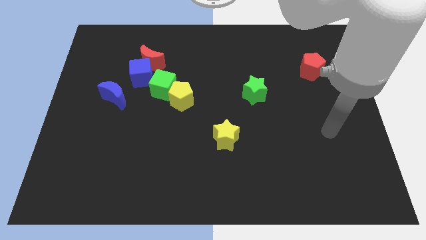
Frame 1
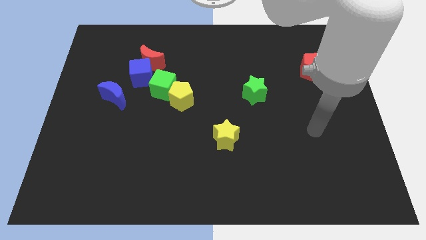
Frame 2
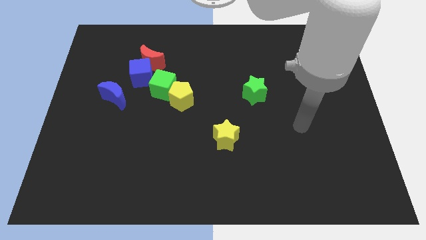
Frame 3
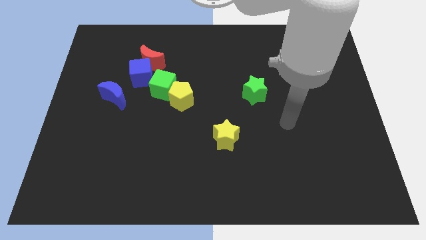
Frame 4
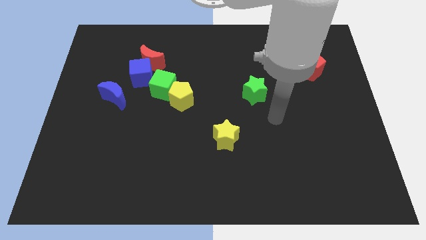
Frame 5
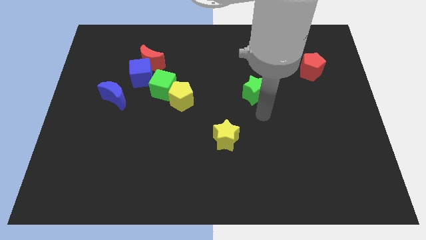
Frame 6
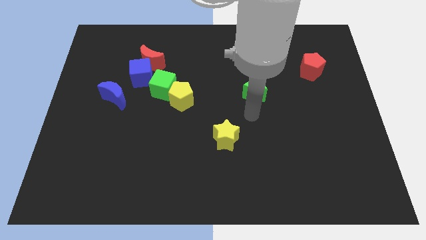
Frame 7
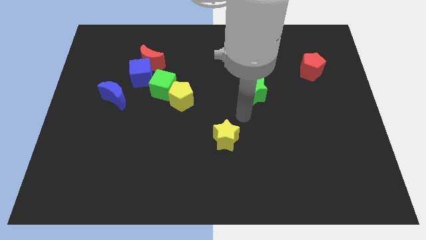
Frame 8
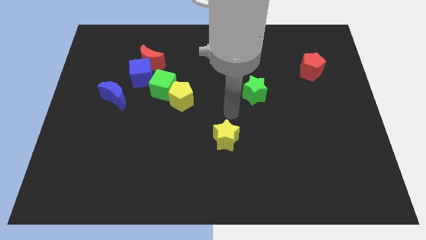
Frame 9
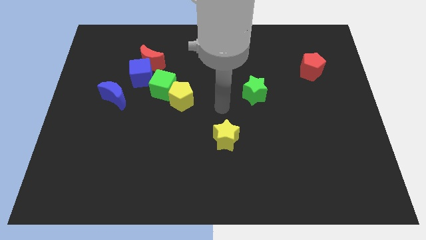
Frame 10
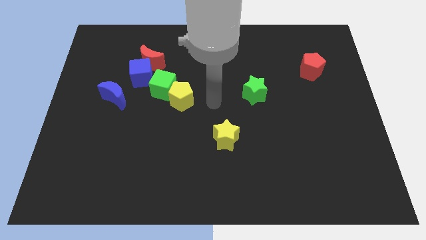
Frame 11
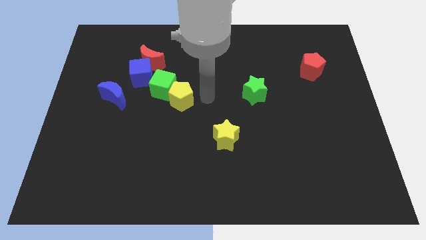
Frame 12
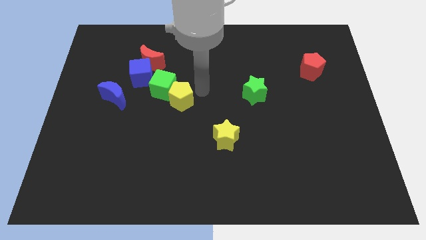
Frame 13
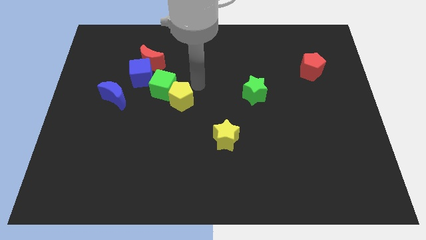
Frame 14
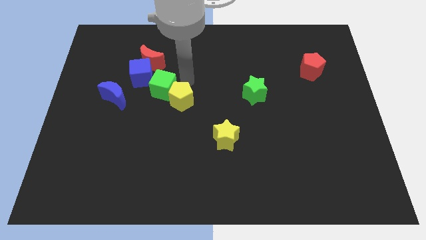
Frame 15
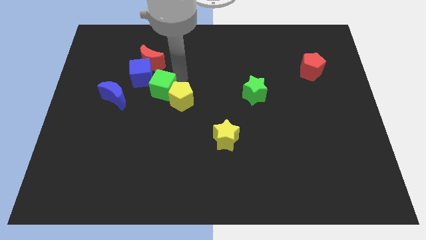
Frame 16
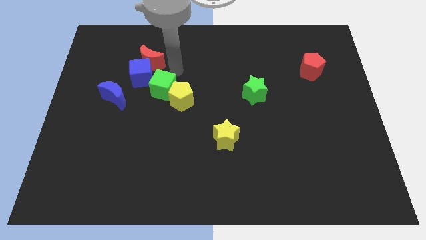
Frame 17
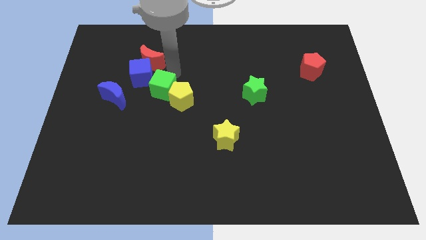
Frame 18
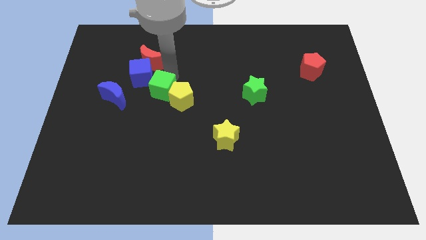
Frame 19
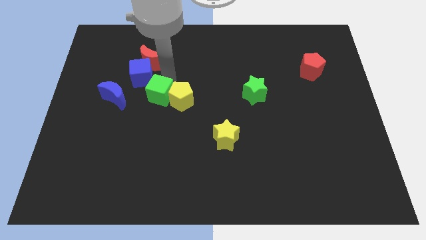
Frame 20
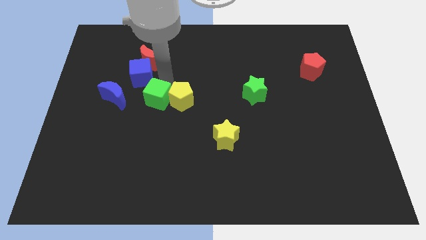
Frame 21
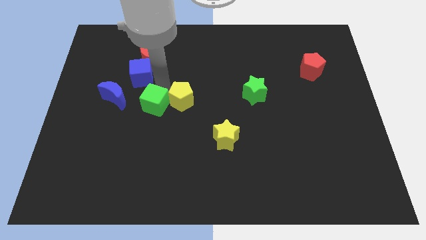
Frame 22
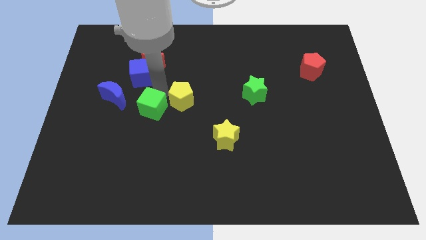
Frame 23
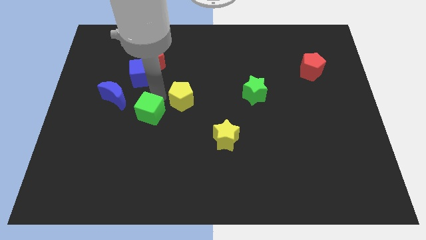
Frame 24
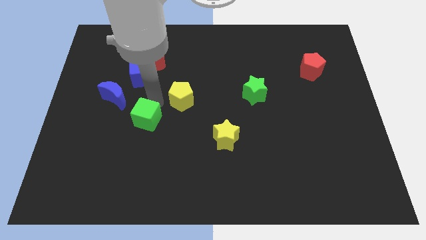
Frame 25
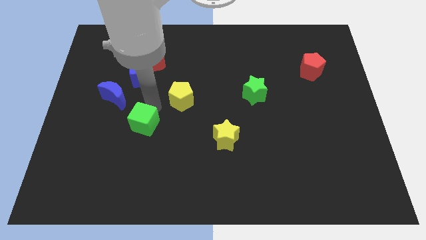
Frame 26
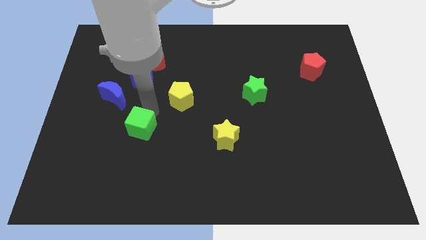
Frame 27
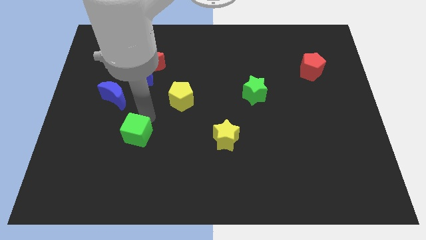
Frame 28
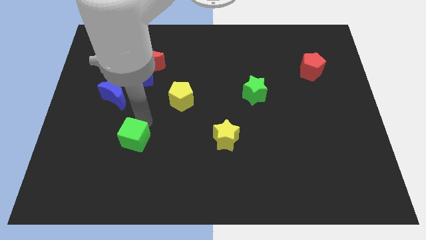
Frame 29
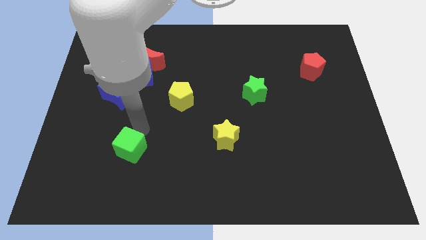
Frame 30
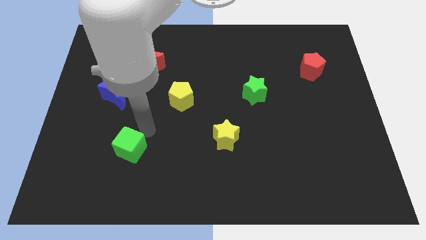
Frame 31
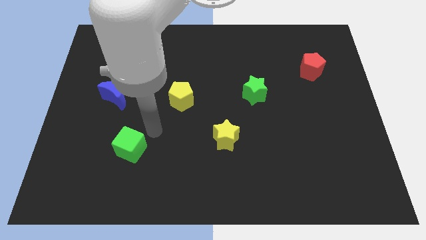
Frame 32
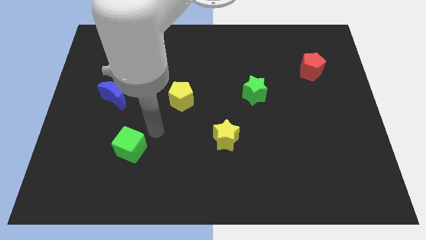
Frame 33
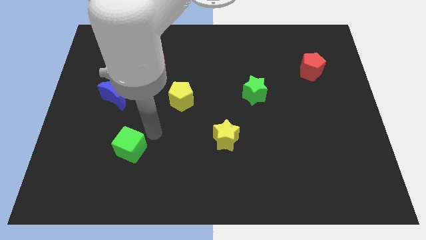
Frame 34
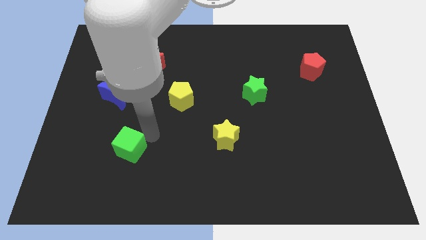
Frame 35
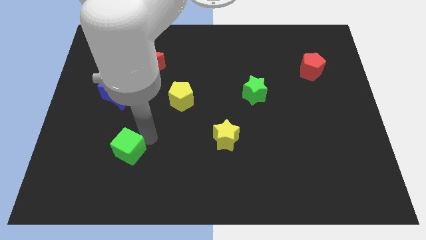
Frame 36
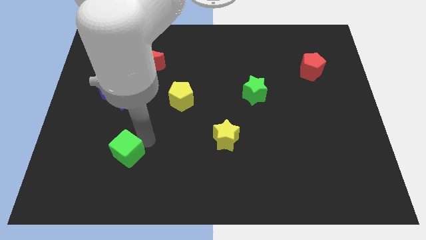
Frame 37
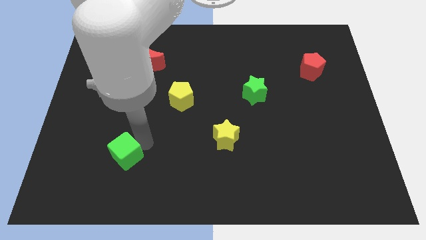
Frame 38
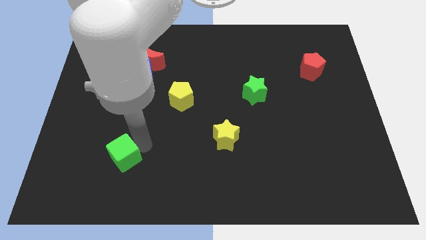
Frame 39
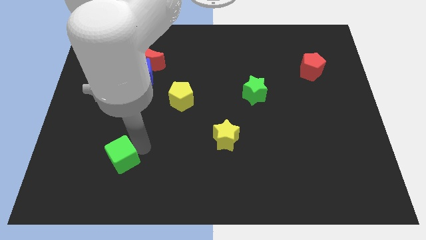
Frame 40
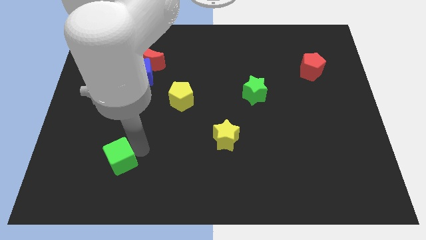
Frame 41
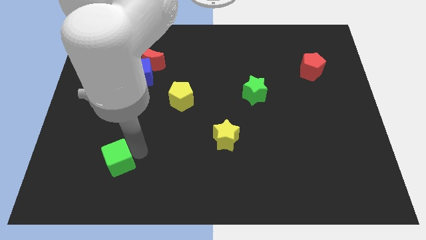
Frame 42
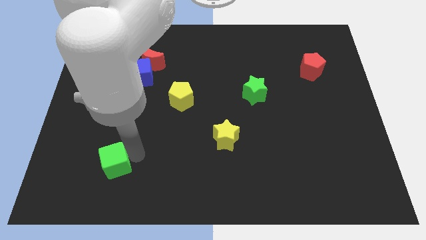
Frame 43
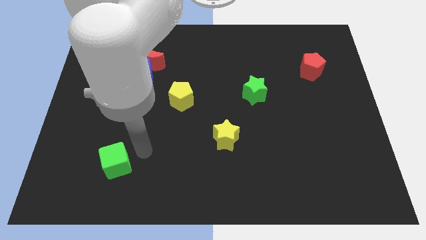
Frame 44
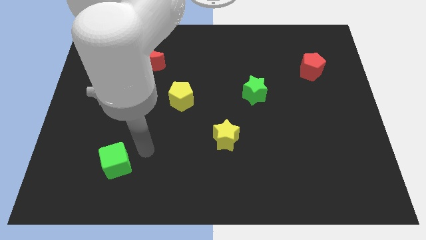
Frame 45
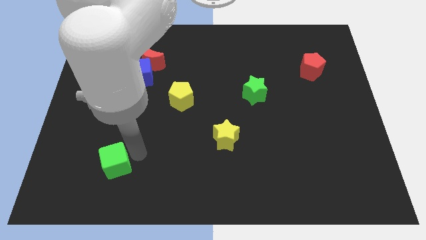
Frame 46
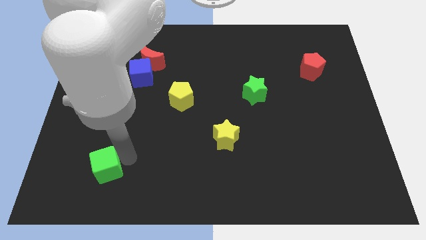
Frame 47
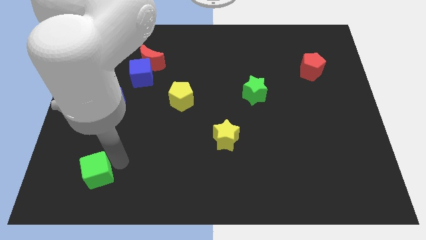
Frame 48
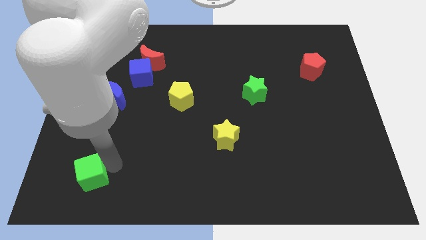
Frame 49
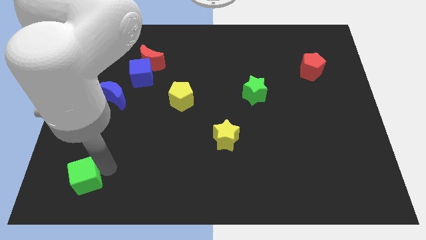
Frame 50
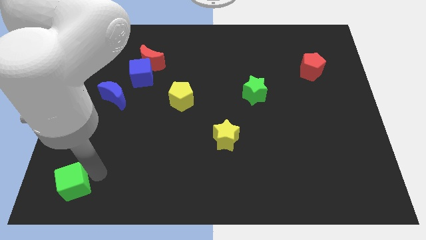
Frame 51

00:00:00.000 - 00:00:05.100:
move the green cube to the bottom left

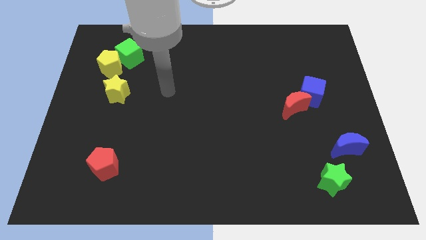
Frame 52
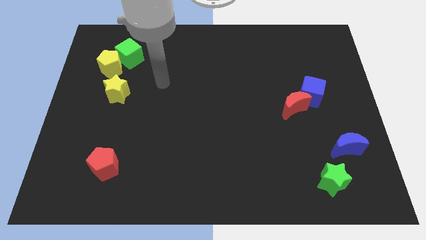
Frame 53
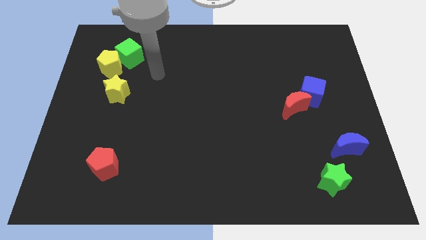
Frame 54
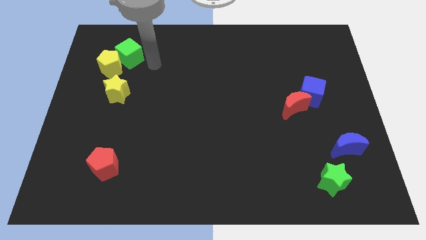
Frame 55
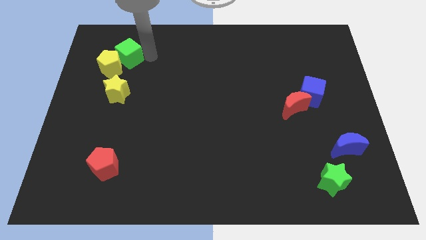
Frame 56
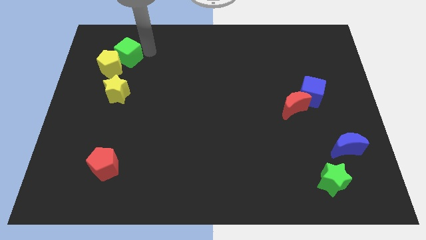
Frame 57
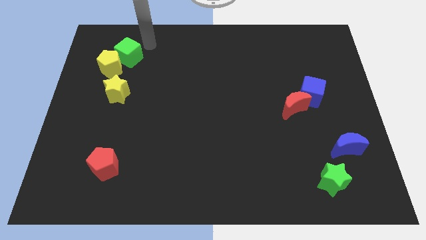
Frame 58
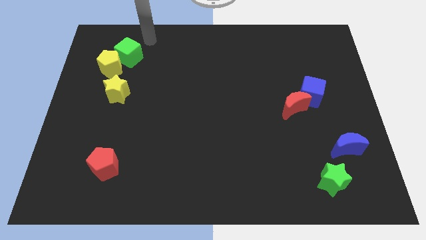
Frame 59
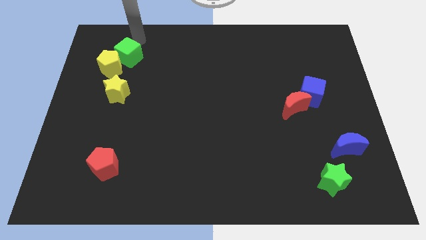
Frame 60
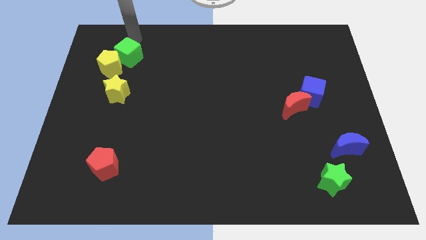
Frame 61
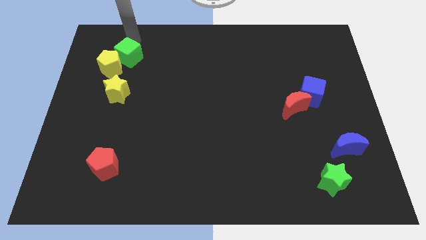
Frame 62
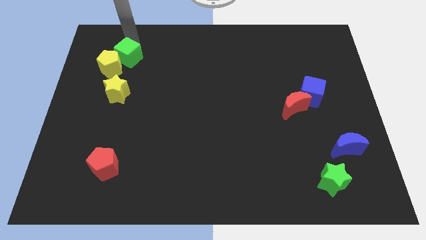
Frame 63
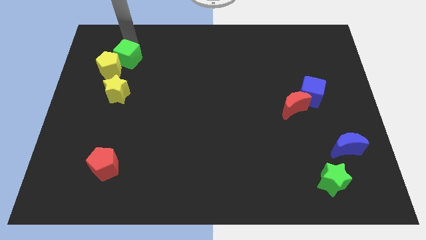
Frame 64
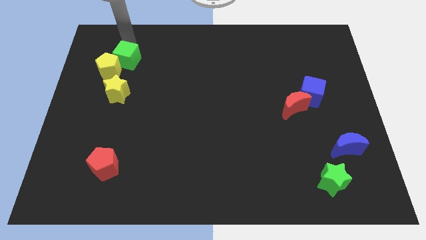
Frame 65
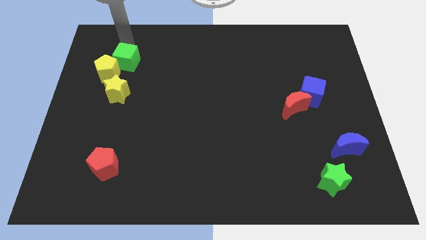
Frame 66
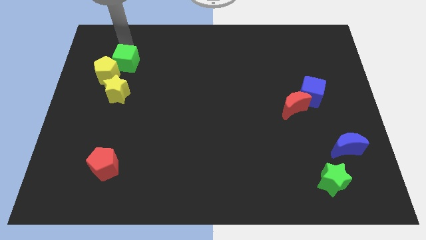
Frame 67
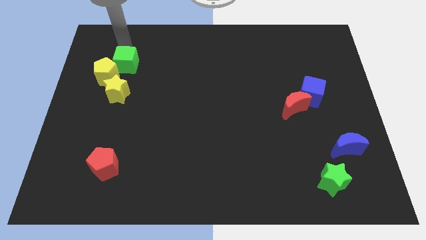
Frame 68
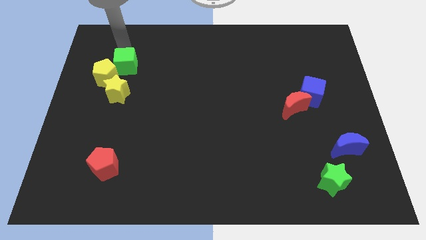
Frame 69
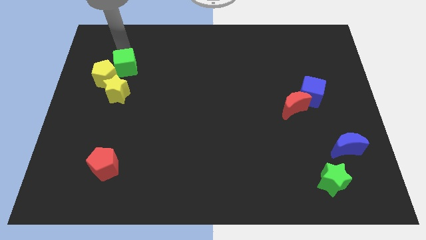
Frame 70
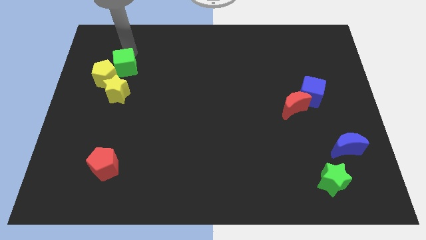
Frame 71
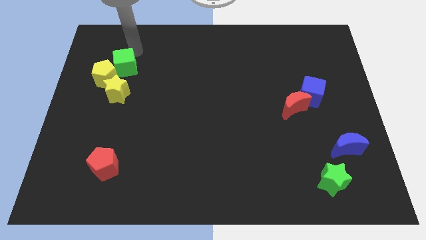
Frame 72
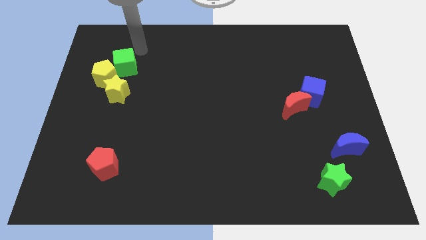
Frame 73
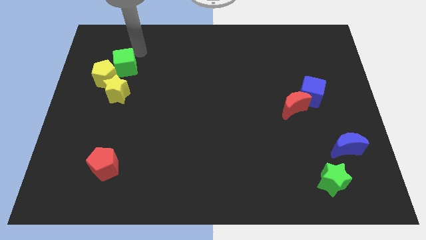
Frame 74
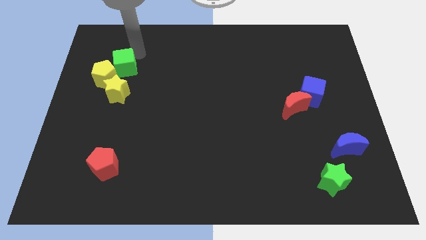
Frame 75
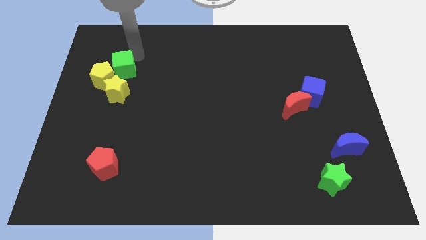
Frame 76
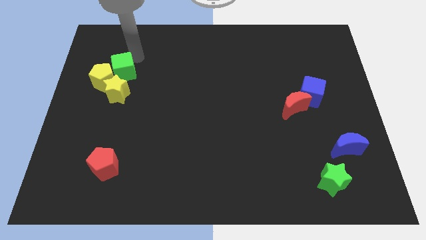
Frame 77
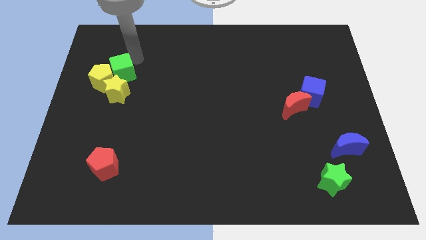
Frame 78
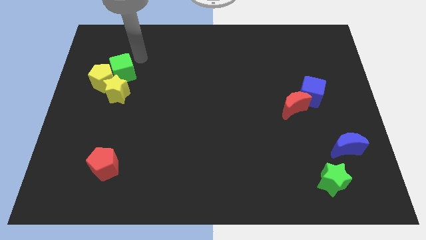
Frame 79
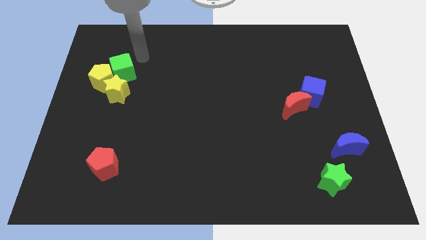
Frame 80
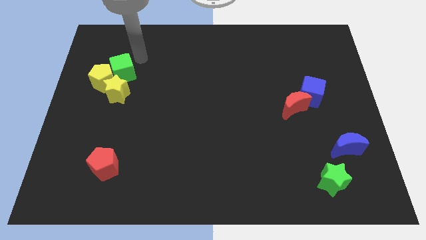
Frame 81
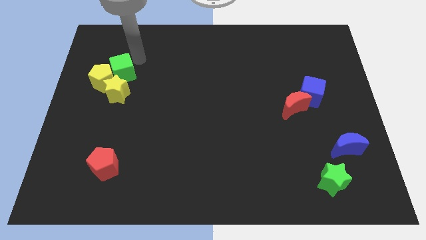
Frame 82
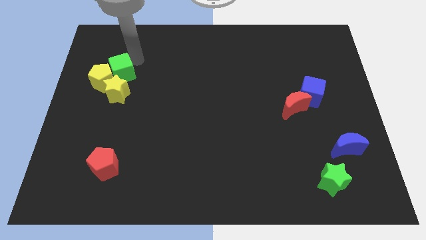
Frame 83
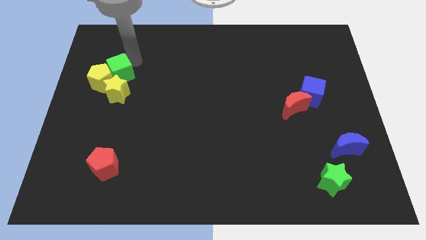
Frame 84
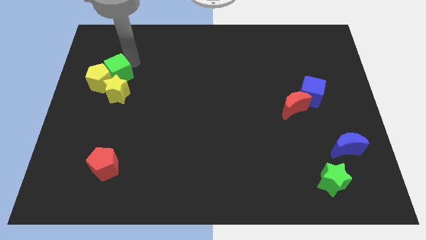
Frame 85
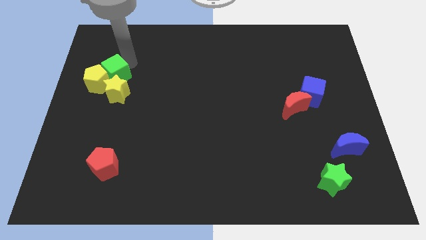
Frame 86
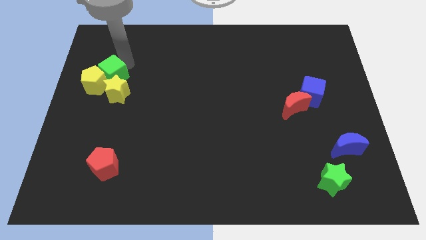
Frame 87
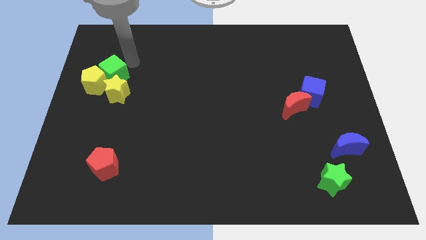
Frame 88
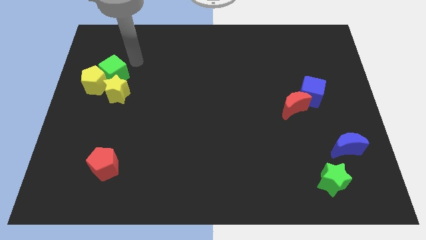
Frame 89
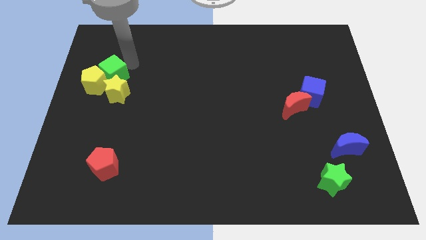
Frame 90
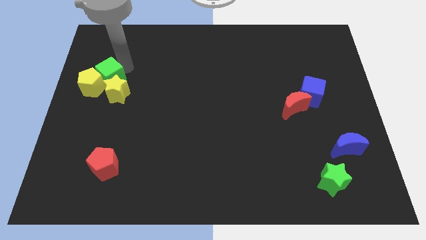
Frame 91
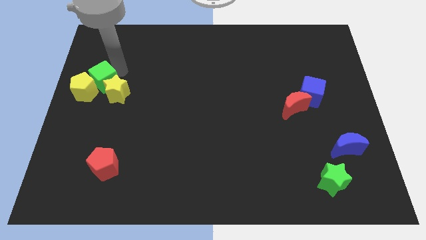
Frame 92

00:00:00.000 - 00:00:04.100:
push the green cube to the center left
